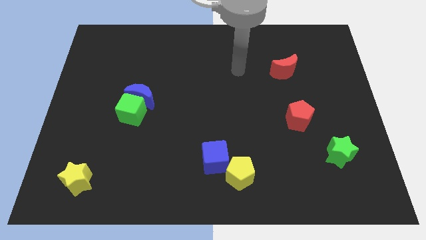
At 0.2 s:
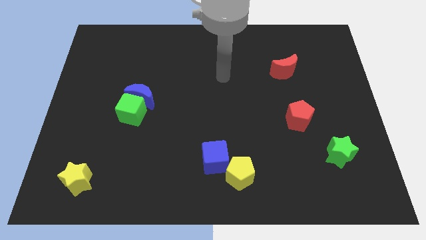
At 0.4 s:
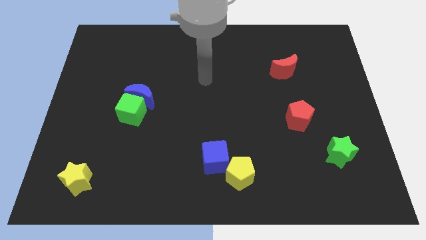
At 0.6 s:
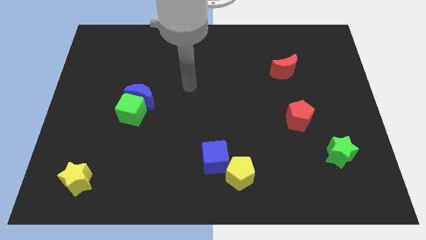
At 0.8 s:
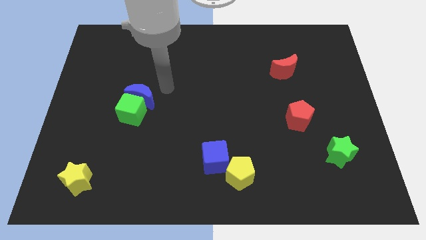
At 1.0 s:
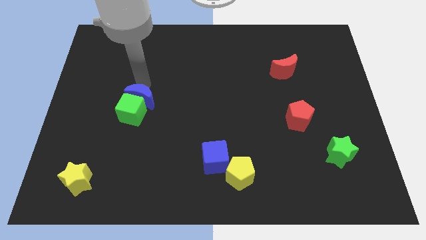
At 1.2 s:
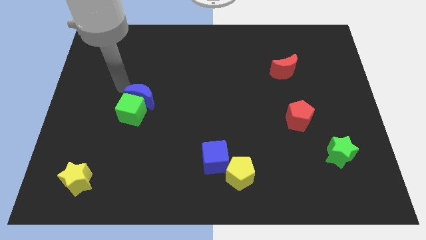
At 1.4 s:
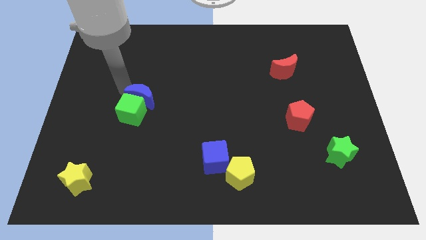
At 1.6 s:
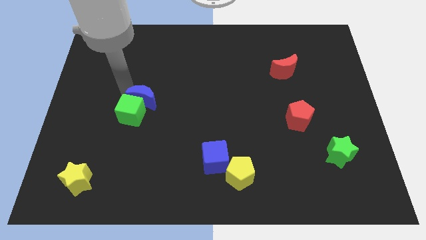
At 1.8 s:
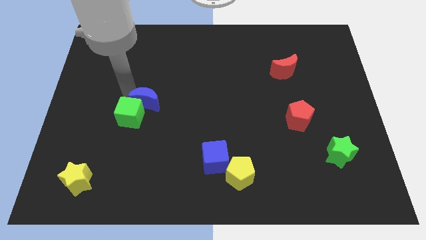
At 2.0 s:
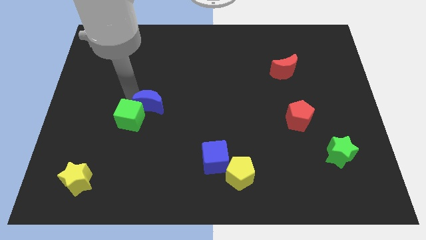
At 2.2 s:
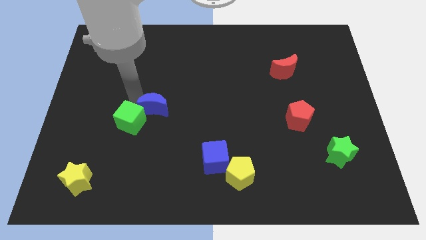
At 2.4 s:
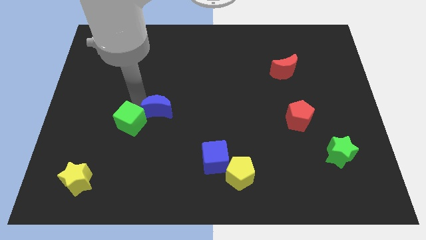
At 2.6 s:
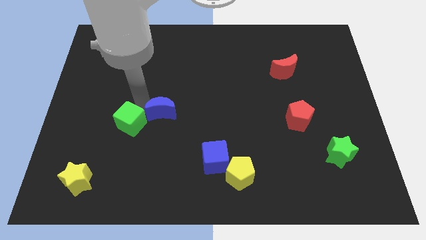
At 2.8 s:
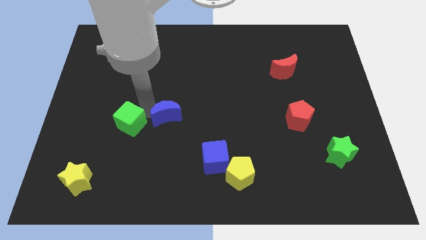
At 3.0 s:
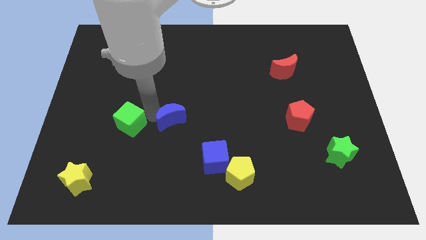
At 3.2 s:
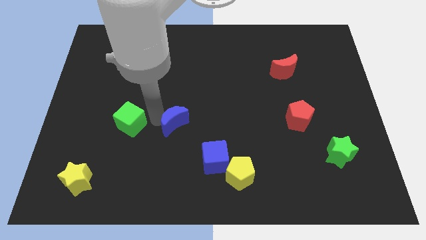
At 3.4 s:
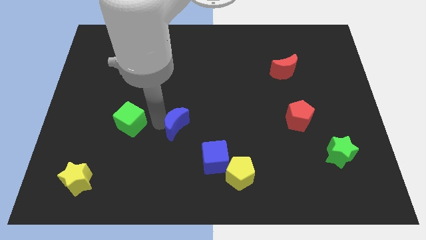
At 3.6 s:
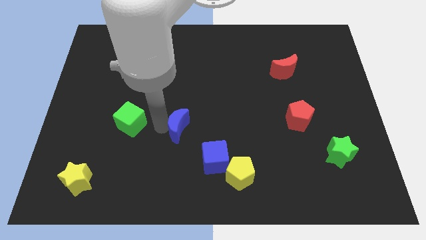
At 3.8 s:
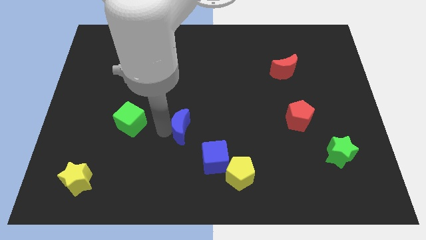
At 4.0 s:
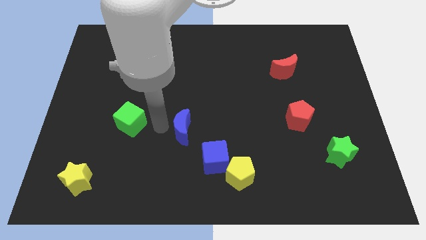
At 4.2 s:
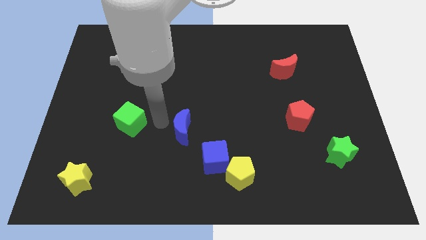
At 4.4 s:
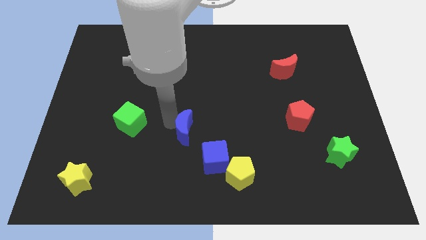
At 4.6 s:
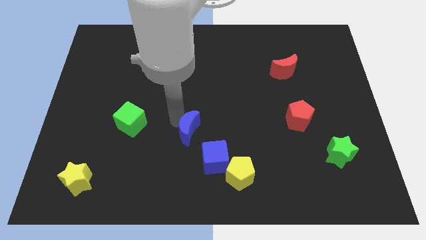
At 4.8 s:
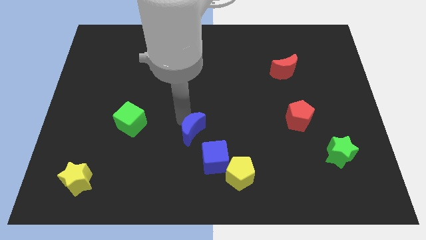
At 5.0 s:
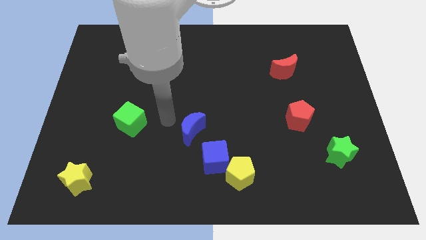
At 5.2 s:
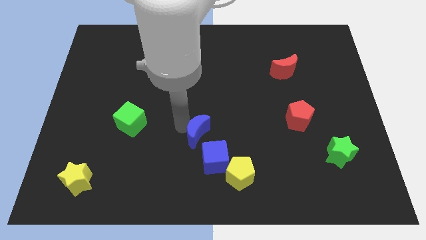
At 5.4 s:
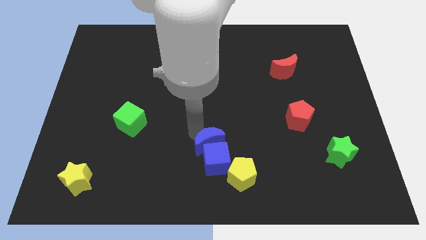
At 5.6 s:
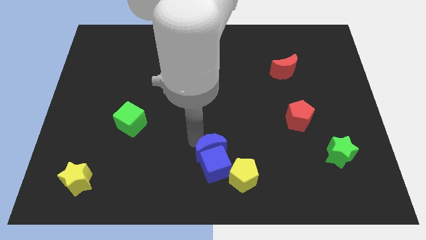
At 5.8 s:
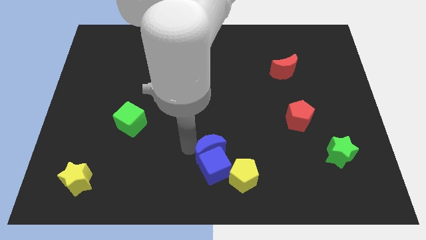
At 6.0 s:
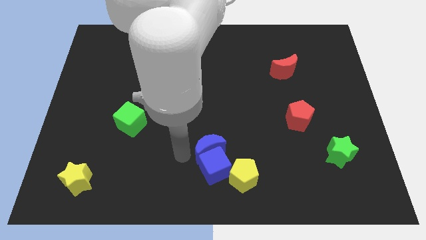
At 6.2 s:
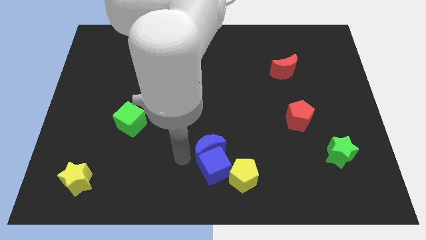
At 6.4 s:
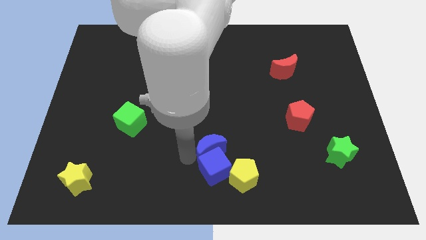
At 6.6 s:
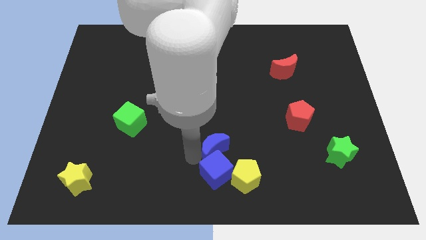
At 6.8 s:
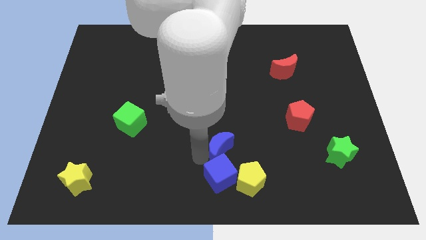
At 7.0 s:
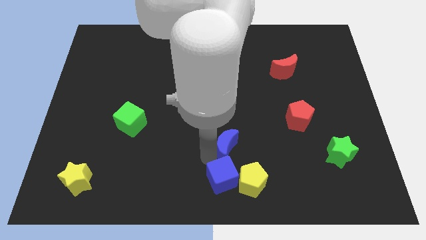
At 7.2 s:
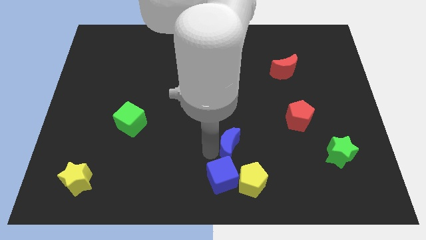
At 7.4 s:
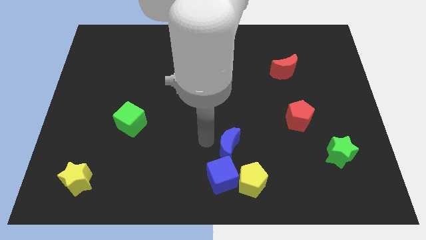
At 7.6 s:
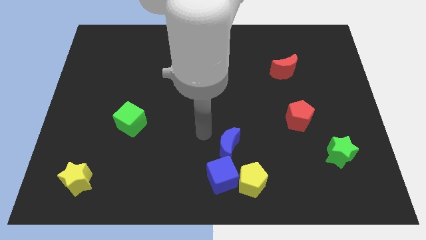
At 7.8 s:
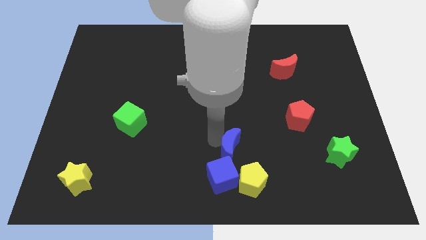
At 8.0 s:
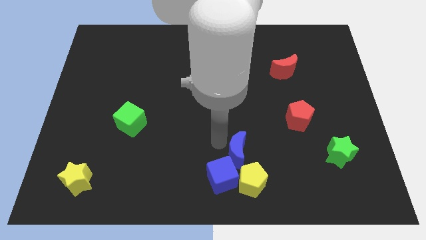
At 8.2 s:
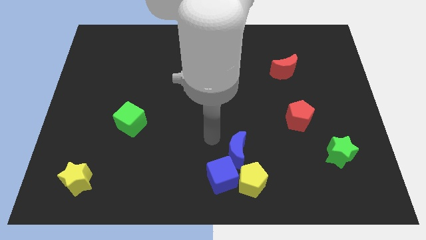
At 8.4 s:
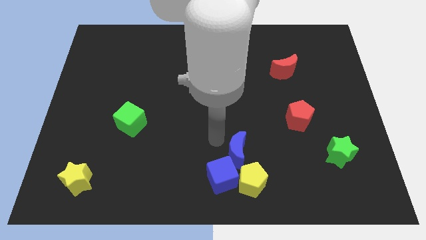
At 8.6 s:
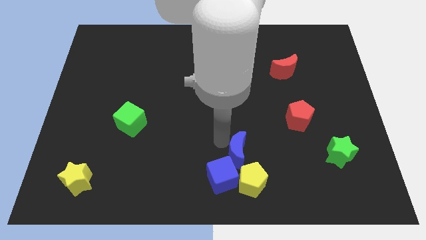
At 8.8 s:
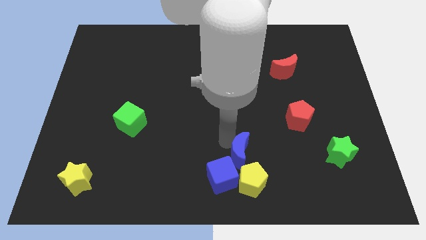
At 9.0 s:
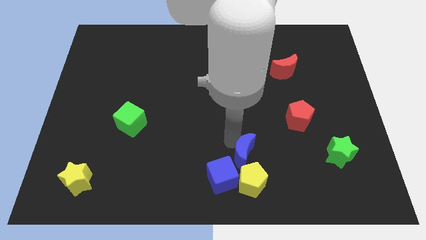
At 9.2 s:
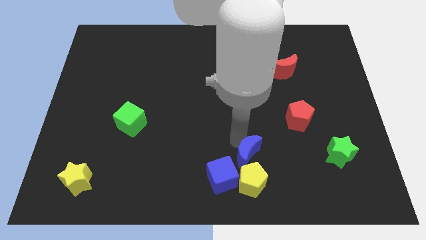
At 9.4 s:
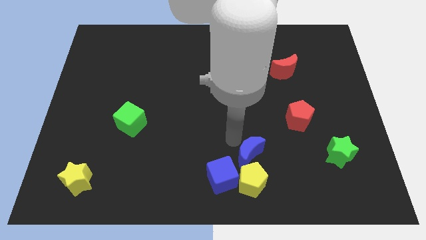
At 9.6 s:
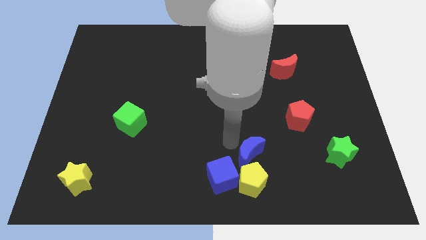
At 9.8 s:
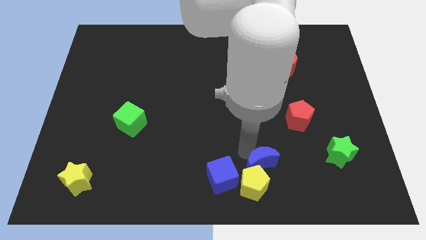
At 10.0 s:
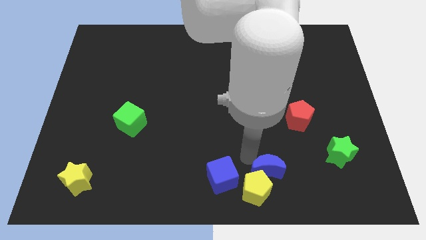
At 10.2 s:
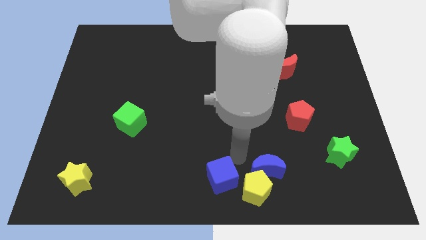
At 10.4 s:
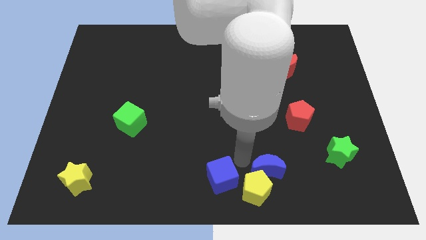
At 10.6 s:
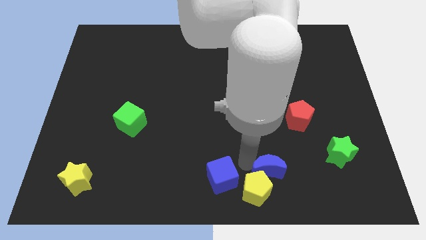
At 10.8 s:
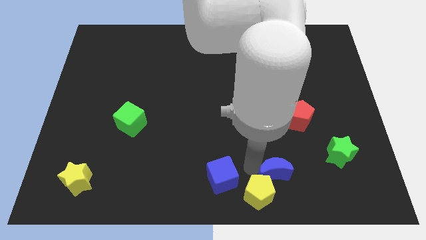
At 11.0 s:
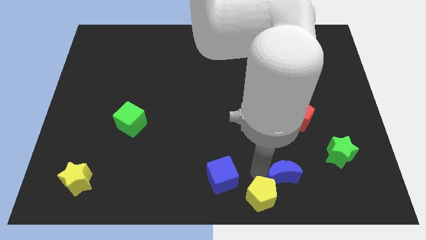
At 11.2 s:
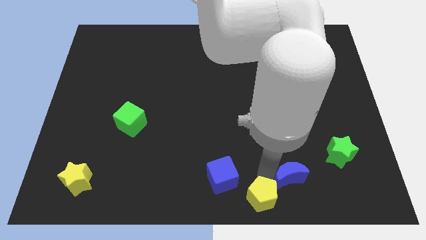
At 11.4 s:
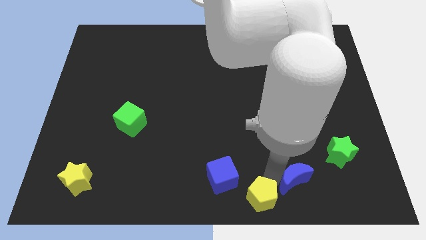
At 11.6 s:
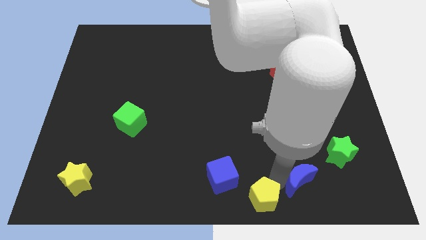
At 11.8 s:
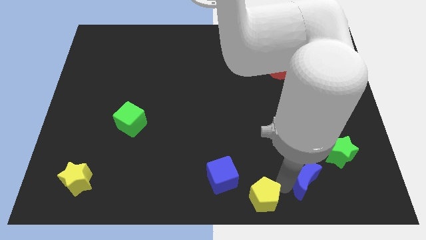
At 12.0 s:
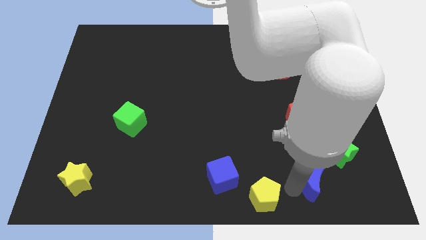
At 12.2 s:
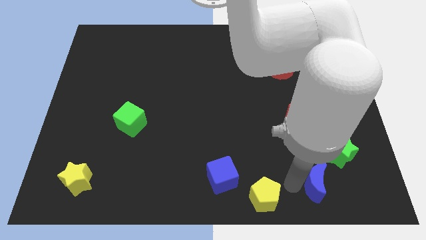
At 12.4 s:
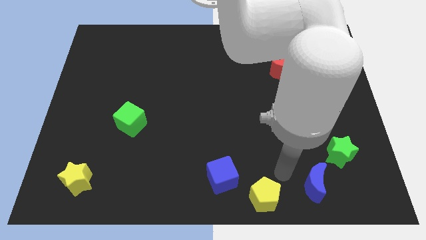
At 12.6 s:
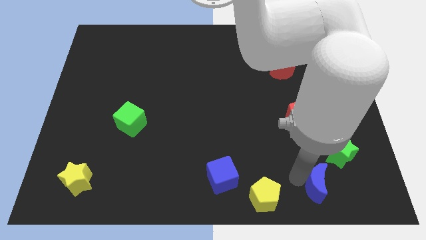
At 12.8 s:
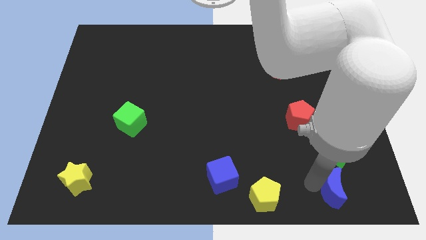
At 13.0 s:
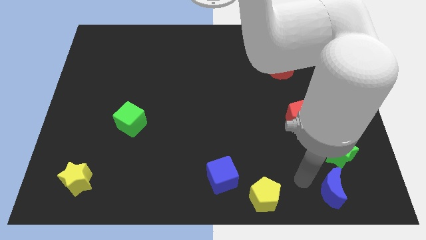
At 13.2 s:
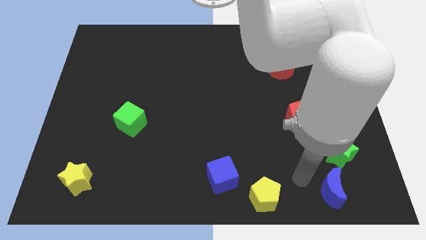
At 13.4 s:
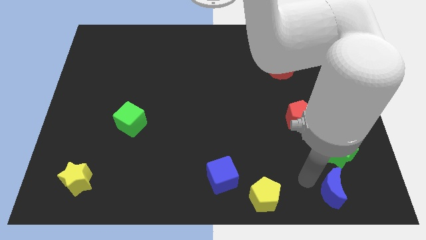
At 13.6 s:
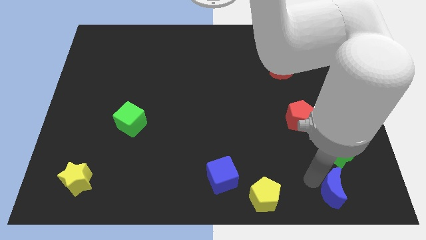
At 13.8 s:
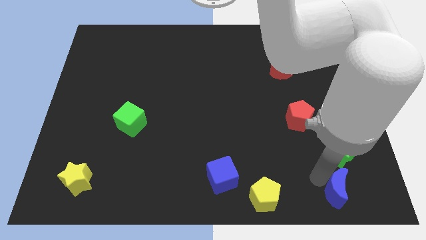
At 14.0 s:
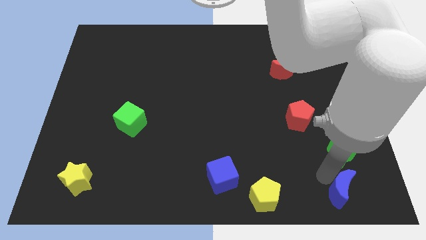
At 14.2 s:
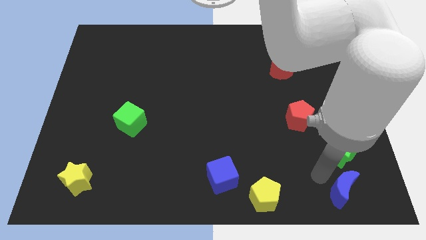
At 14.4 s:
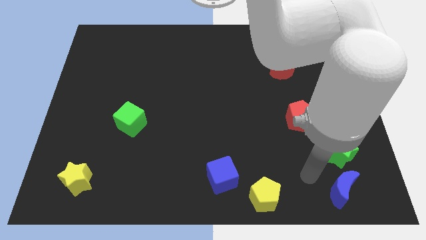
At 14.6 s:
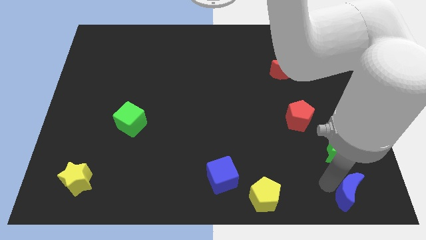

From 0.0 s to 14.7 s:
push the blue moon to the bottom right
